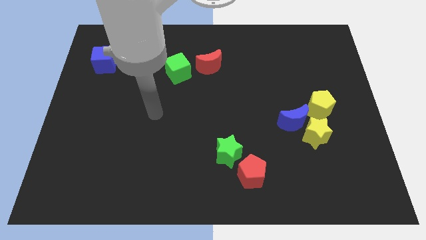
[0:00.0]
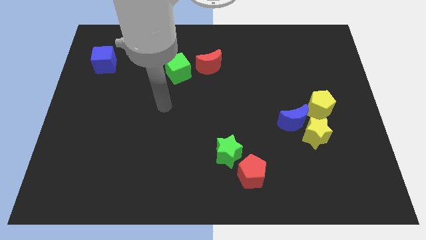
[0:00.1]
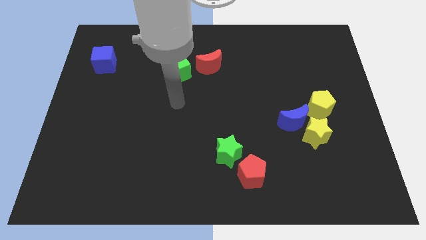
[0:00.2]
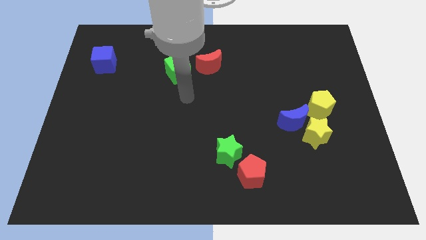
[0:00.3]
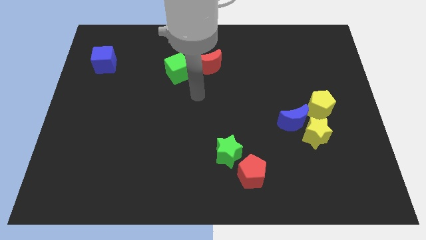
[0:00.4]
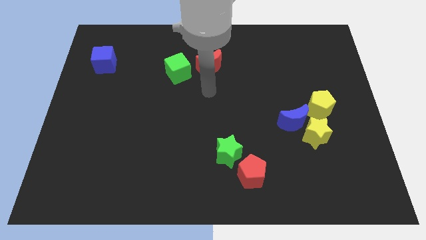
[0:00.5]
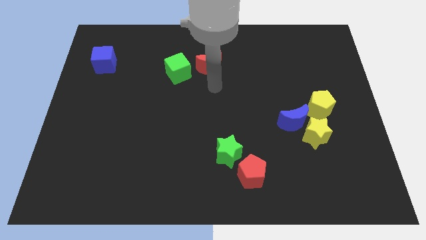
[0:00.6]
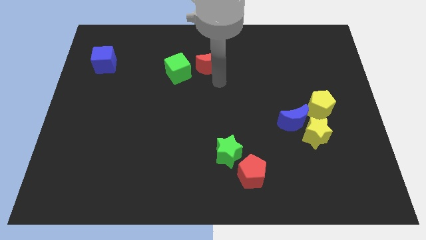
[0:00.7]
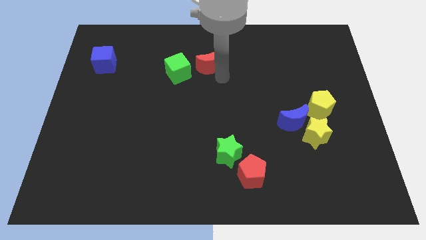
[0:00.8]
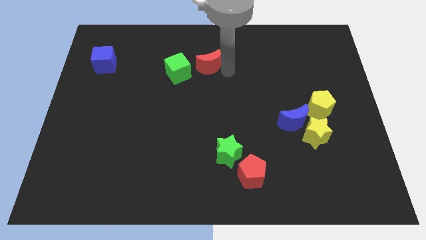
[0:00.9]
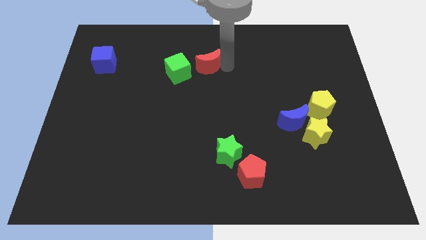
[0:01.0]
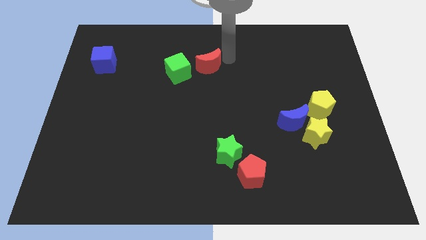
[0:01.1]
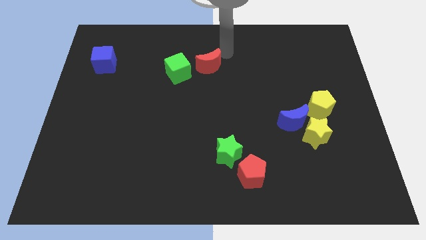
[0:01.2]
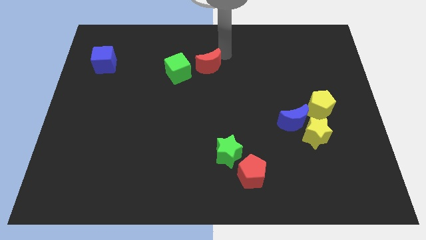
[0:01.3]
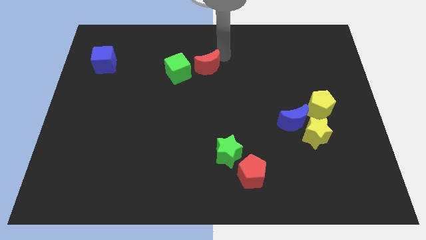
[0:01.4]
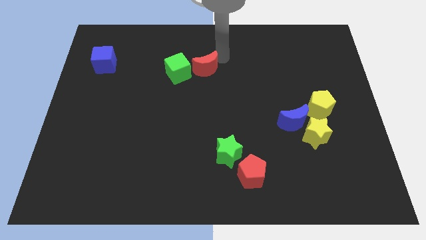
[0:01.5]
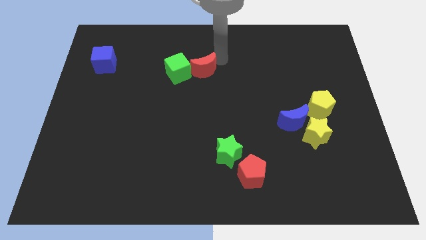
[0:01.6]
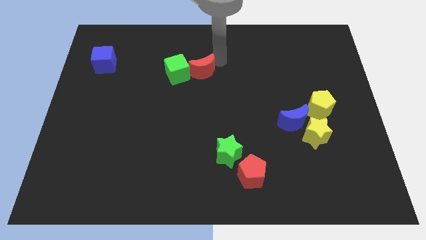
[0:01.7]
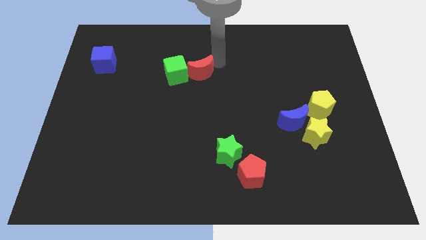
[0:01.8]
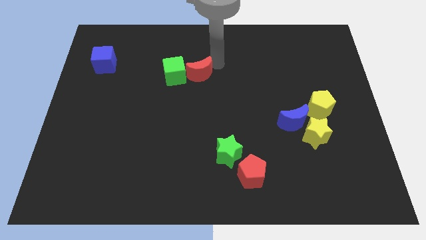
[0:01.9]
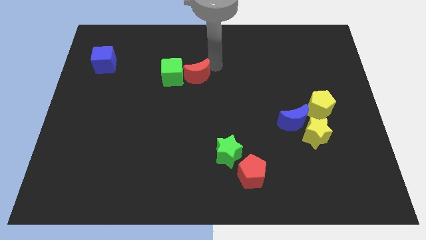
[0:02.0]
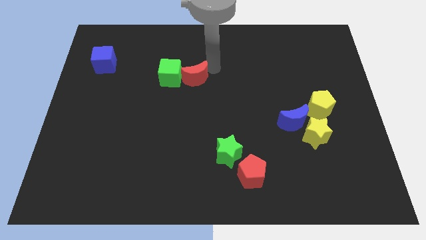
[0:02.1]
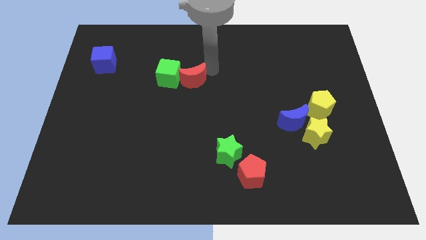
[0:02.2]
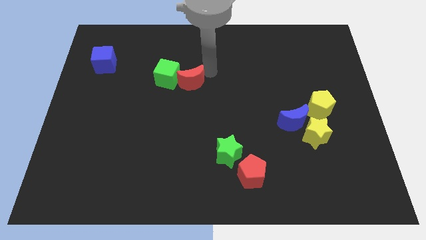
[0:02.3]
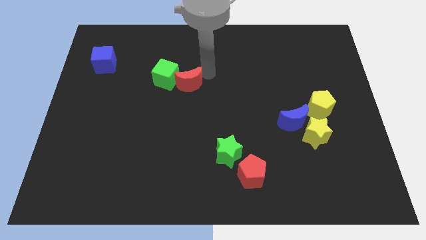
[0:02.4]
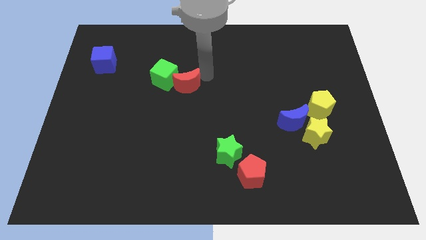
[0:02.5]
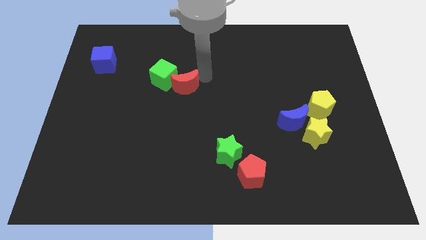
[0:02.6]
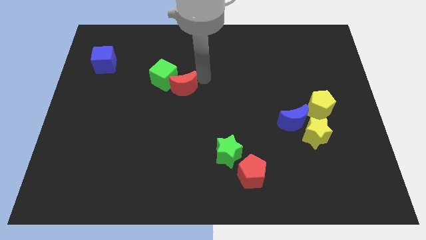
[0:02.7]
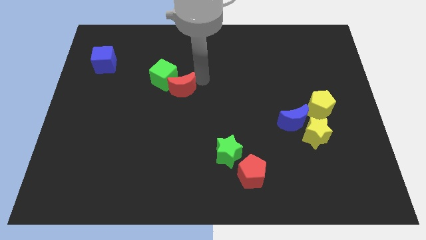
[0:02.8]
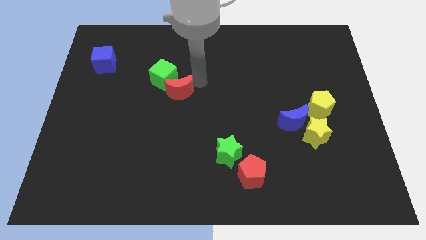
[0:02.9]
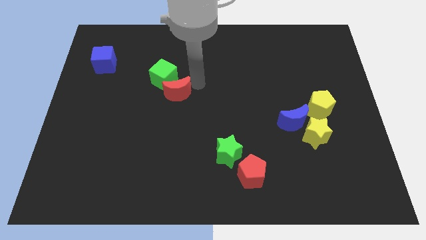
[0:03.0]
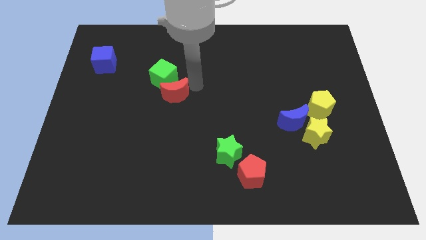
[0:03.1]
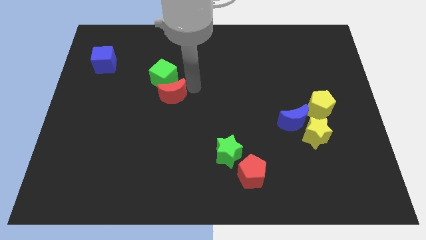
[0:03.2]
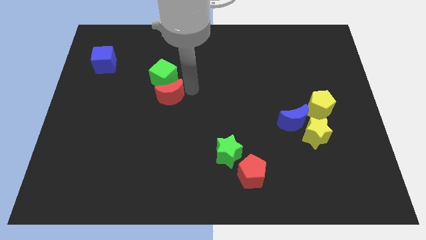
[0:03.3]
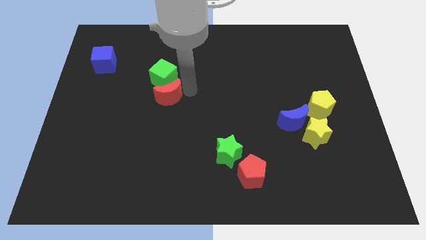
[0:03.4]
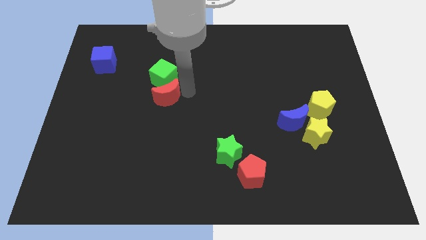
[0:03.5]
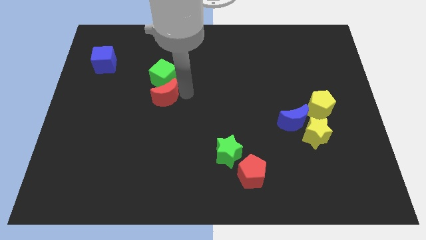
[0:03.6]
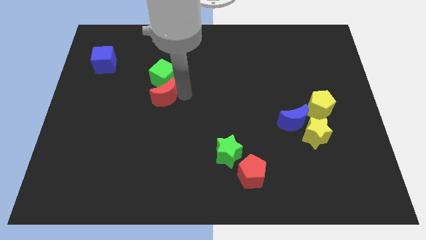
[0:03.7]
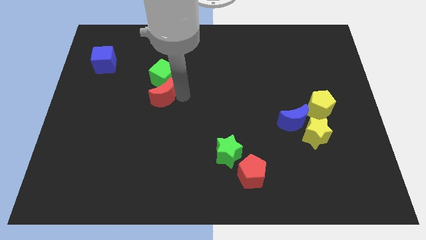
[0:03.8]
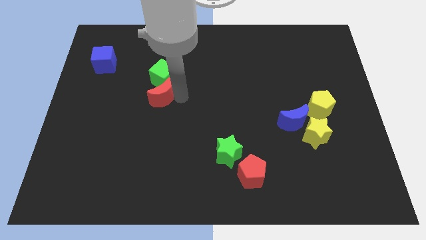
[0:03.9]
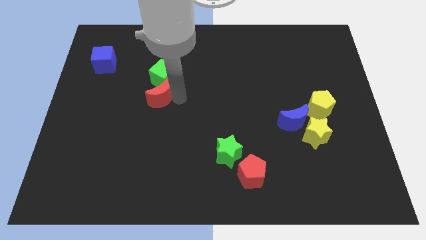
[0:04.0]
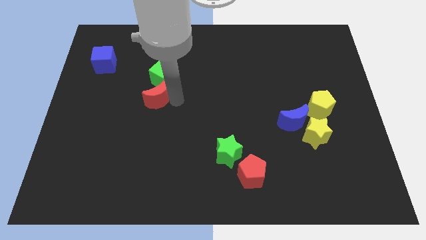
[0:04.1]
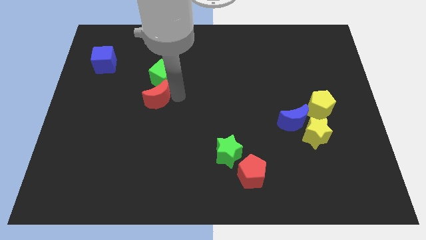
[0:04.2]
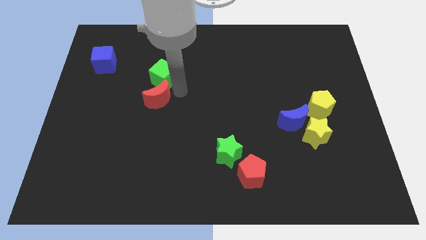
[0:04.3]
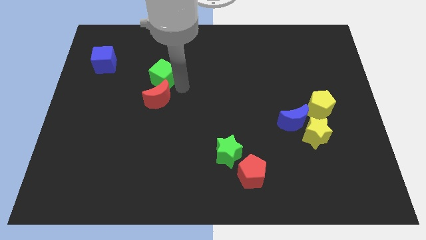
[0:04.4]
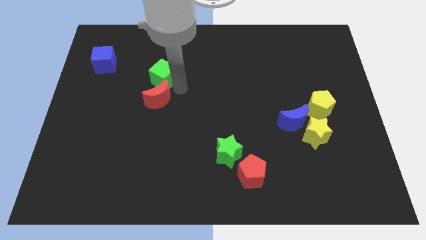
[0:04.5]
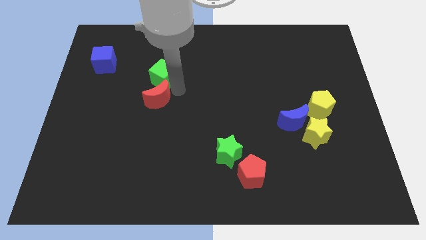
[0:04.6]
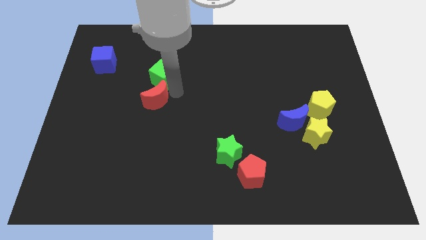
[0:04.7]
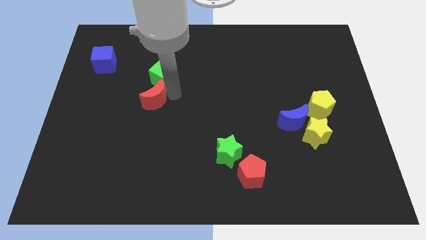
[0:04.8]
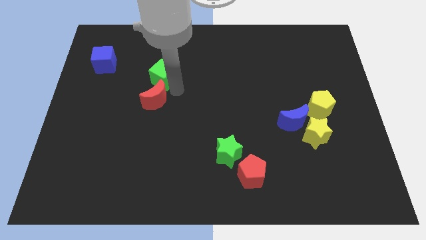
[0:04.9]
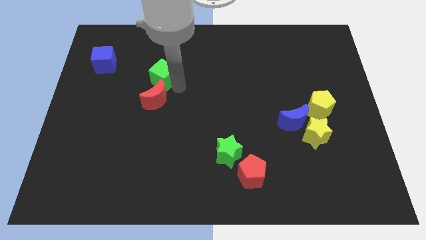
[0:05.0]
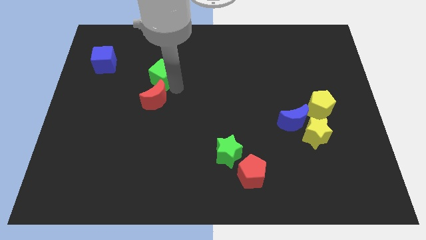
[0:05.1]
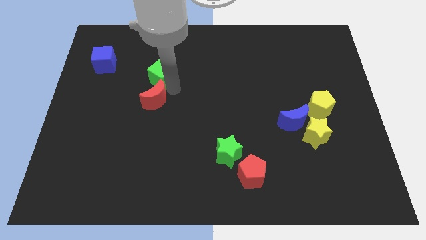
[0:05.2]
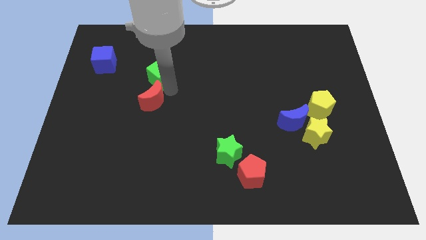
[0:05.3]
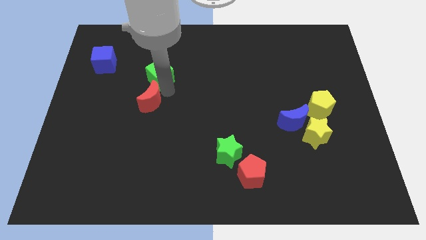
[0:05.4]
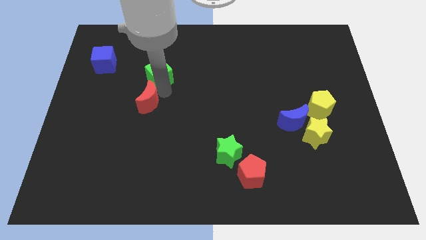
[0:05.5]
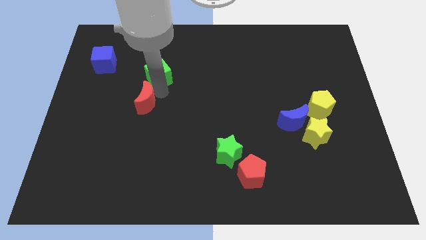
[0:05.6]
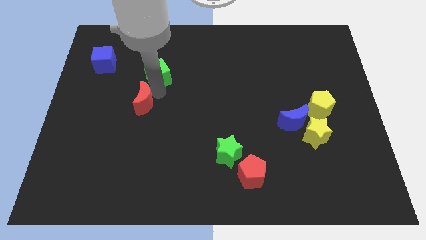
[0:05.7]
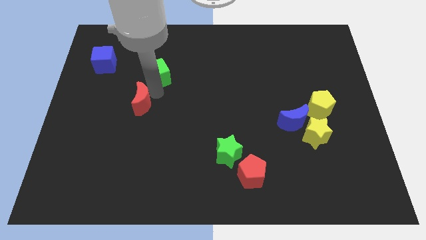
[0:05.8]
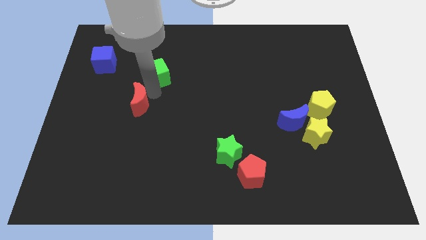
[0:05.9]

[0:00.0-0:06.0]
slide the red moon diagonally downwards and left

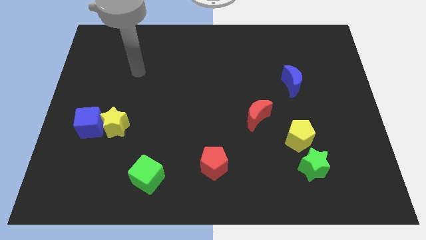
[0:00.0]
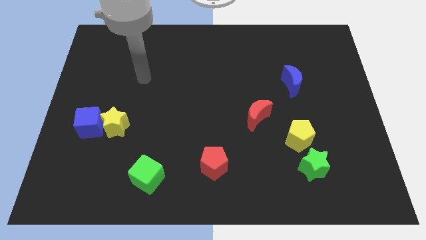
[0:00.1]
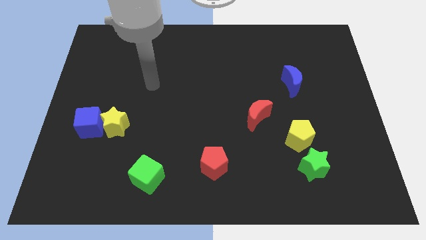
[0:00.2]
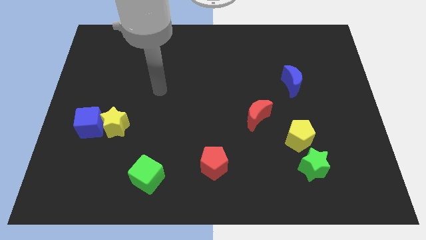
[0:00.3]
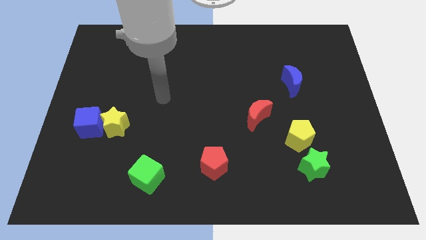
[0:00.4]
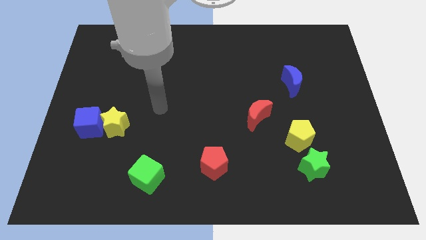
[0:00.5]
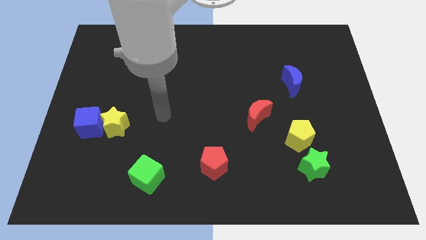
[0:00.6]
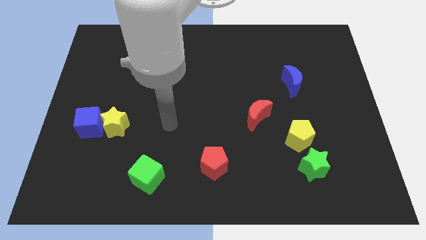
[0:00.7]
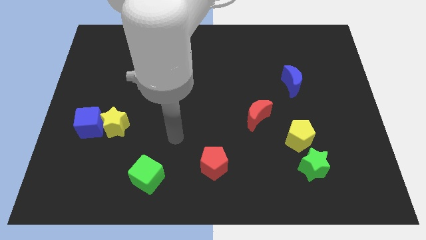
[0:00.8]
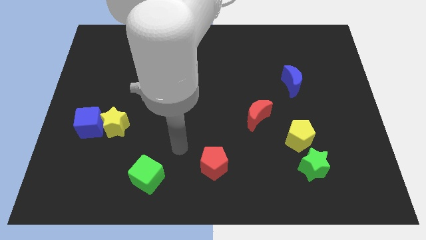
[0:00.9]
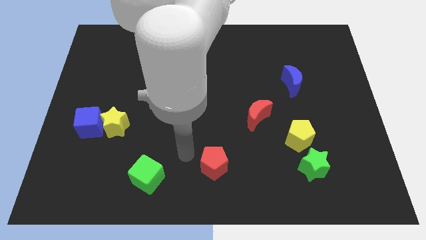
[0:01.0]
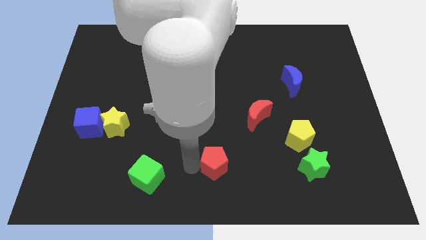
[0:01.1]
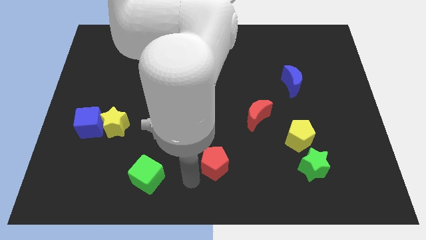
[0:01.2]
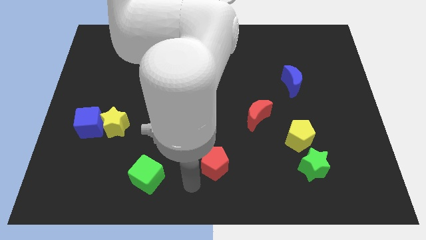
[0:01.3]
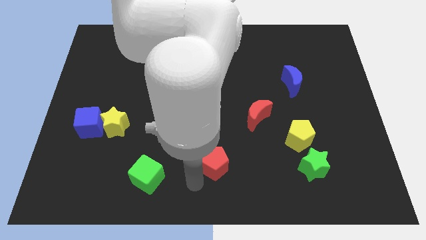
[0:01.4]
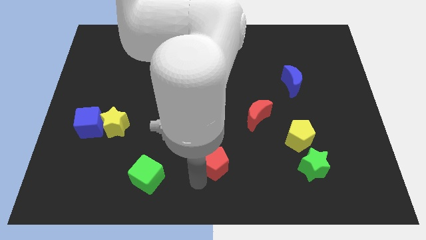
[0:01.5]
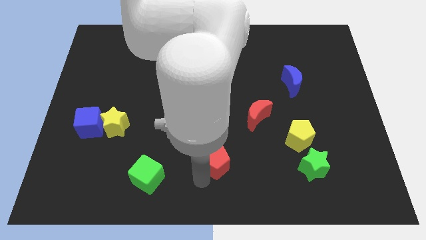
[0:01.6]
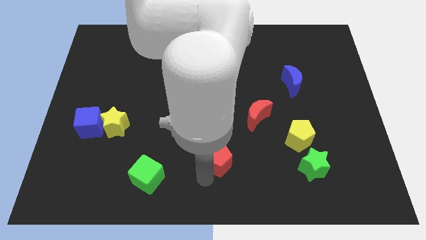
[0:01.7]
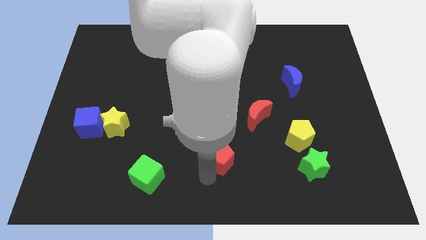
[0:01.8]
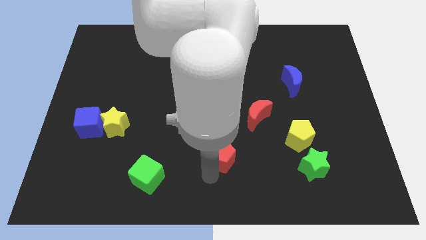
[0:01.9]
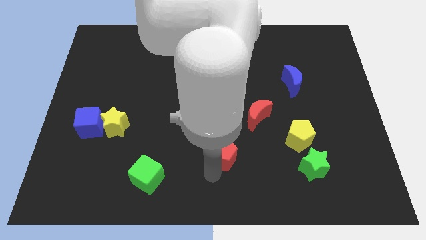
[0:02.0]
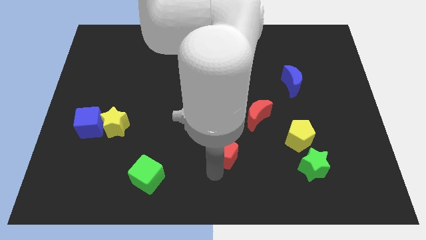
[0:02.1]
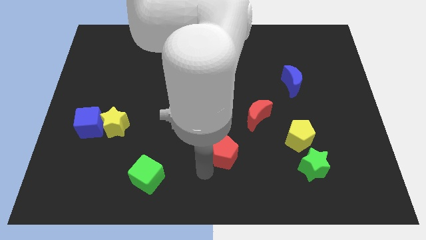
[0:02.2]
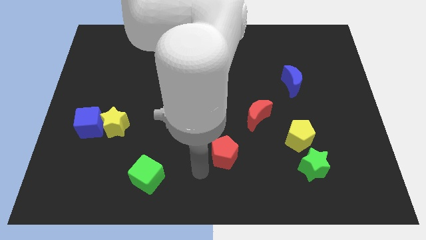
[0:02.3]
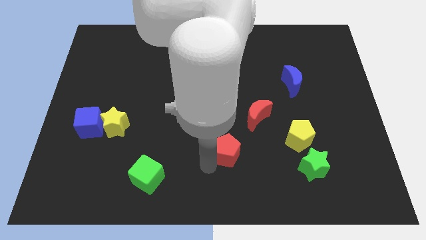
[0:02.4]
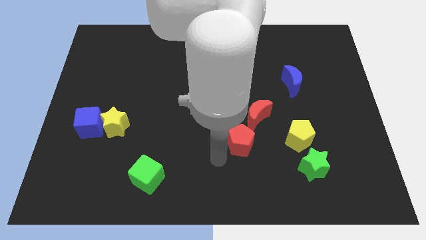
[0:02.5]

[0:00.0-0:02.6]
slide the red pentagon upwards and then right slightly
